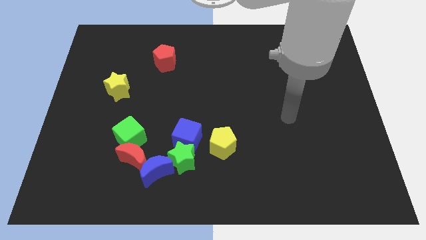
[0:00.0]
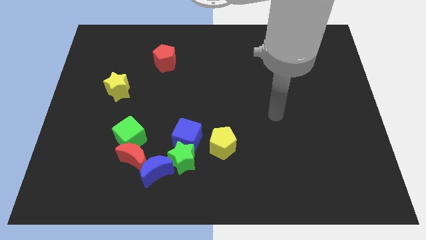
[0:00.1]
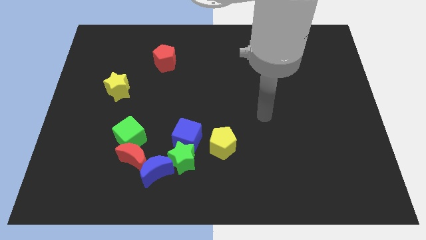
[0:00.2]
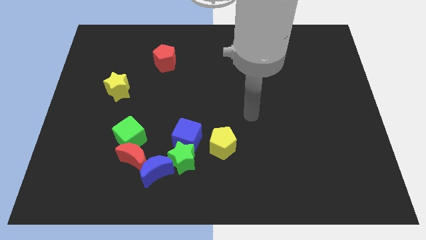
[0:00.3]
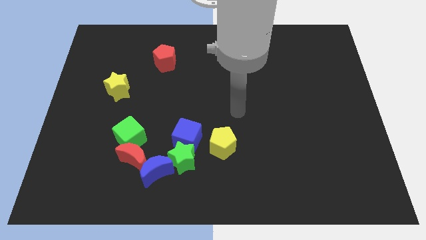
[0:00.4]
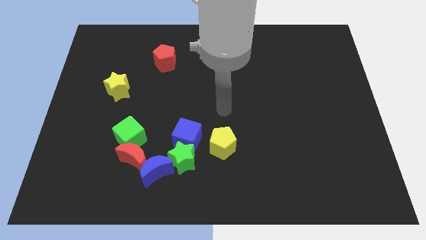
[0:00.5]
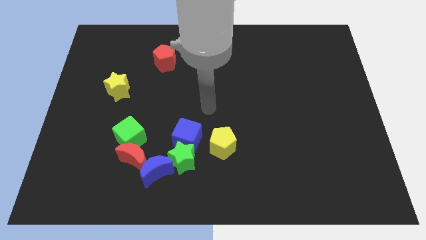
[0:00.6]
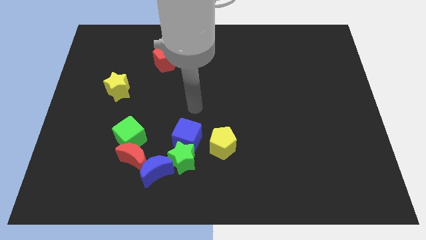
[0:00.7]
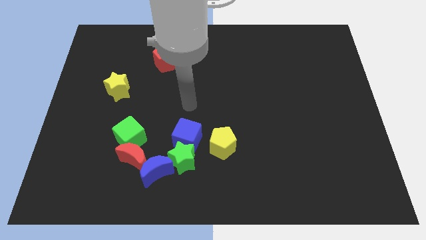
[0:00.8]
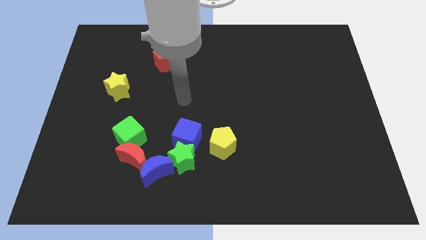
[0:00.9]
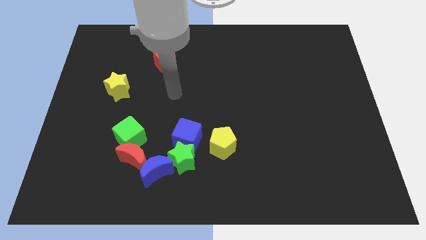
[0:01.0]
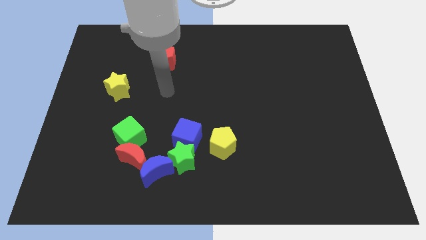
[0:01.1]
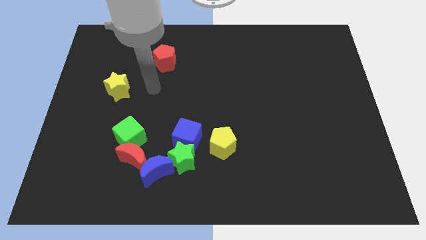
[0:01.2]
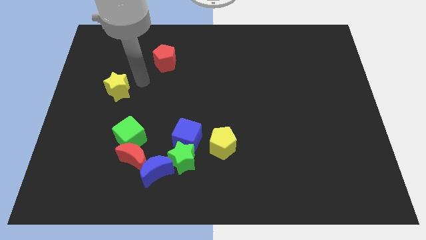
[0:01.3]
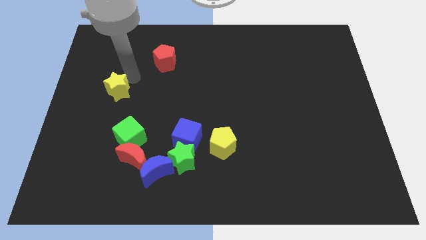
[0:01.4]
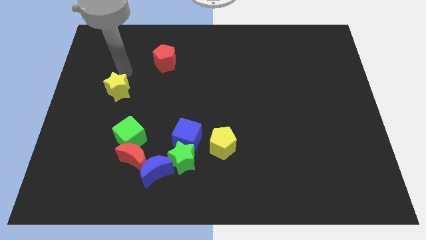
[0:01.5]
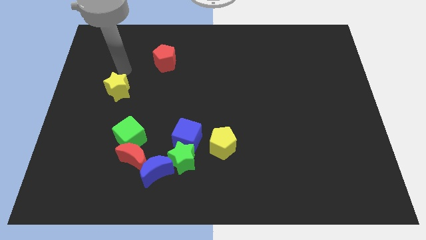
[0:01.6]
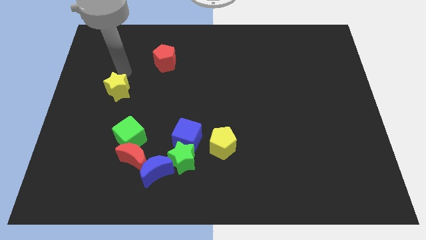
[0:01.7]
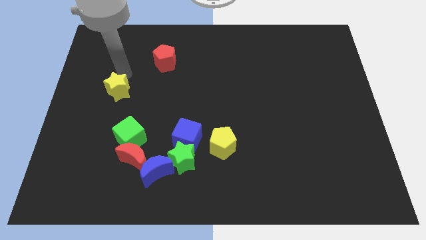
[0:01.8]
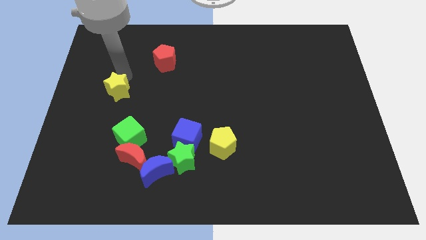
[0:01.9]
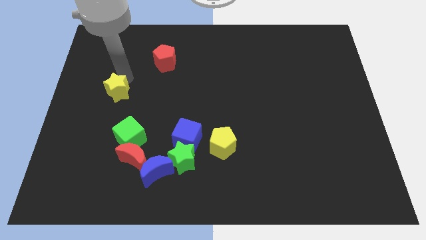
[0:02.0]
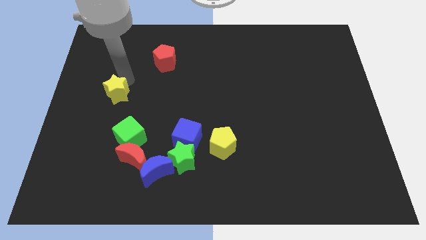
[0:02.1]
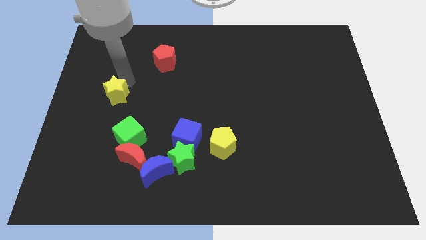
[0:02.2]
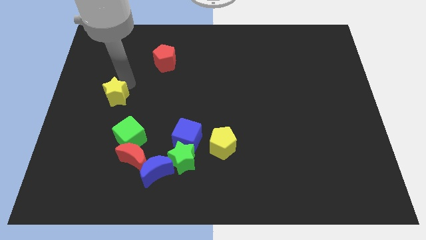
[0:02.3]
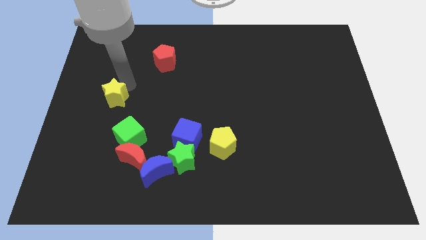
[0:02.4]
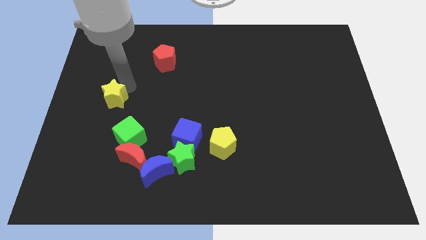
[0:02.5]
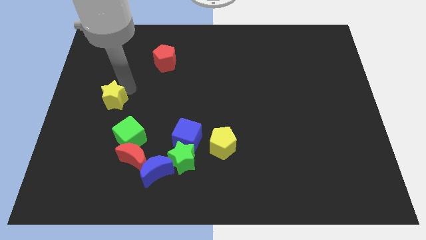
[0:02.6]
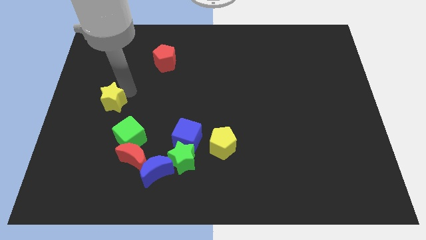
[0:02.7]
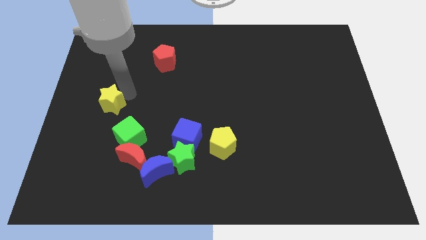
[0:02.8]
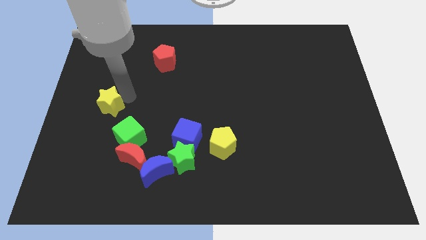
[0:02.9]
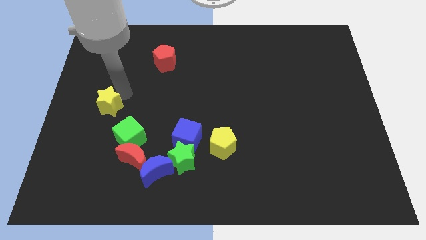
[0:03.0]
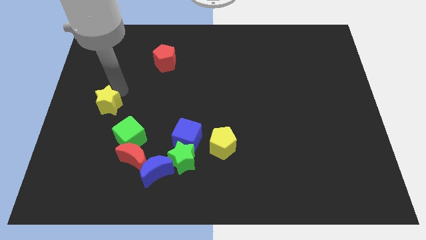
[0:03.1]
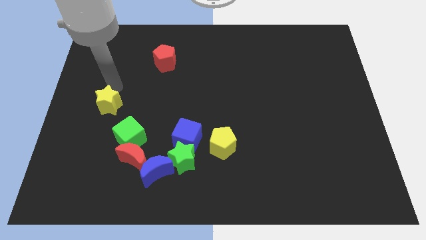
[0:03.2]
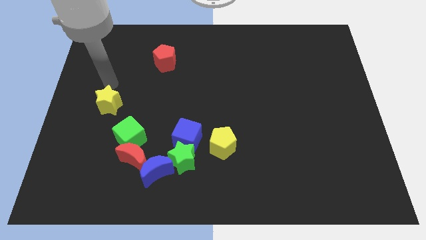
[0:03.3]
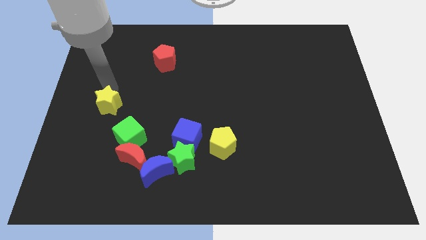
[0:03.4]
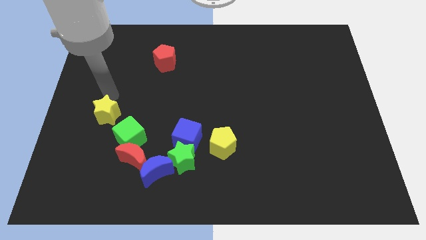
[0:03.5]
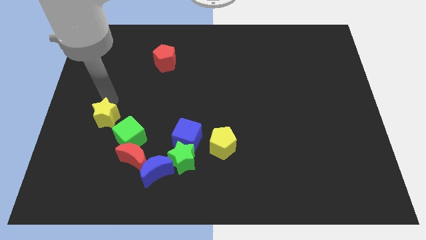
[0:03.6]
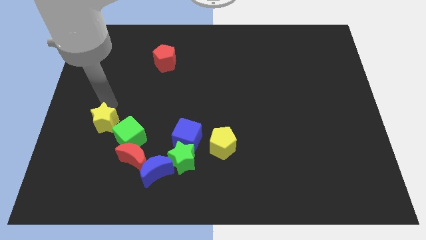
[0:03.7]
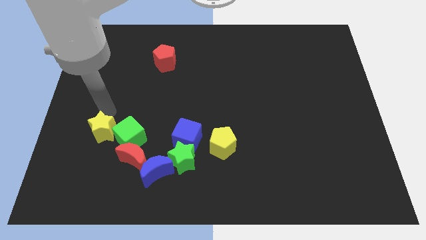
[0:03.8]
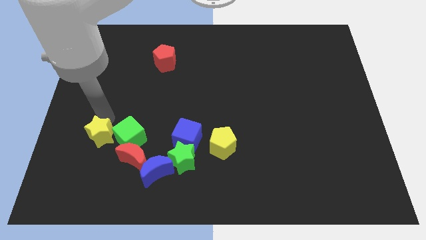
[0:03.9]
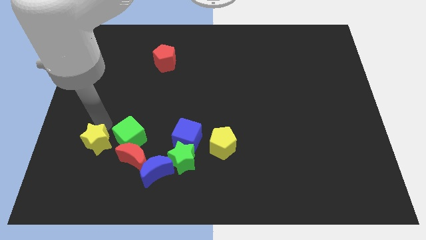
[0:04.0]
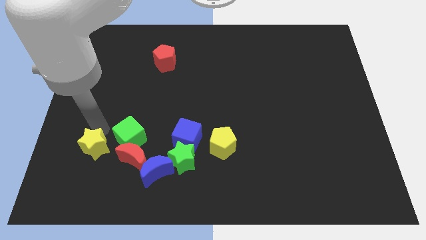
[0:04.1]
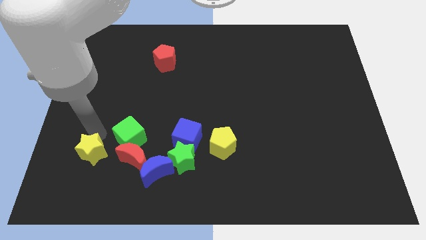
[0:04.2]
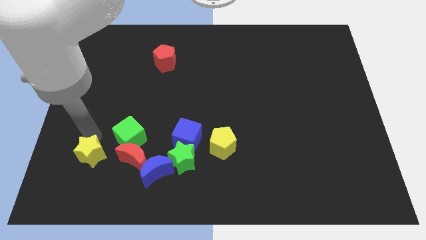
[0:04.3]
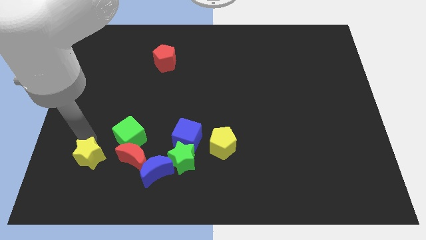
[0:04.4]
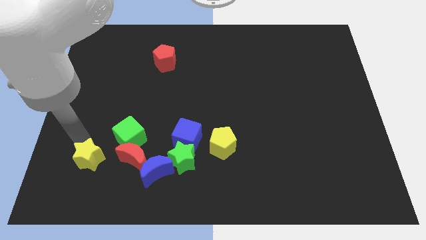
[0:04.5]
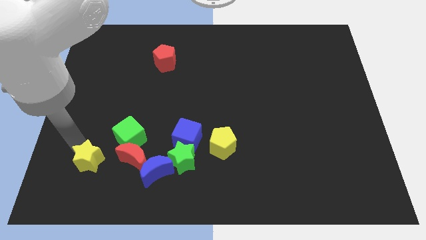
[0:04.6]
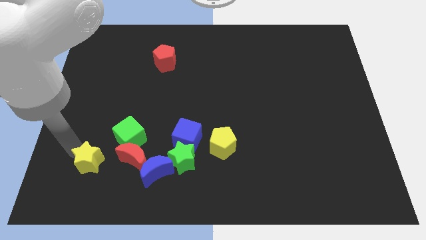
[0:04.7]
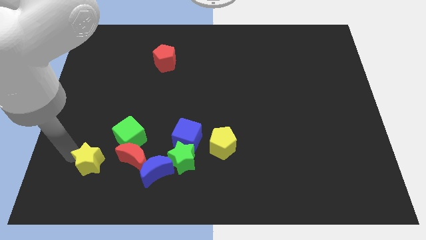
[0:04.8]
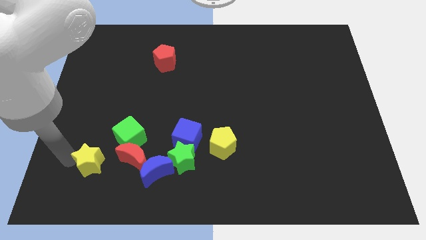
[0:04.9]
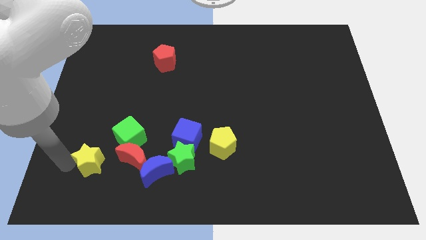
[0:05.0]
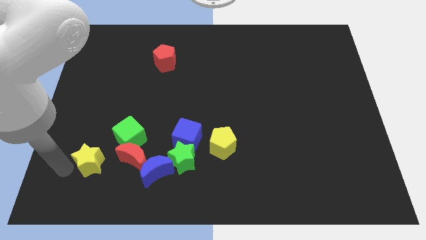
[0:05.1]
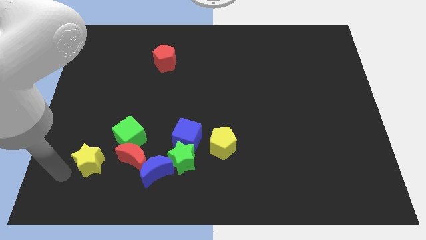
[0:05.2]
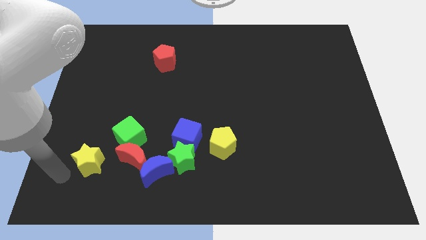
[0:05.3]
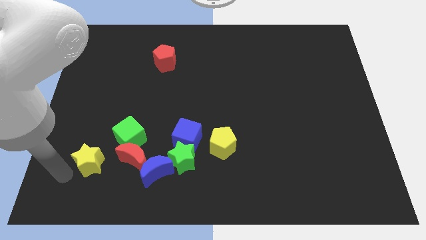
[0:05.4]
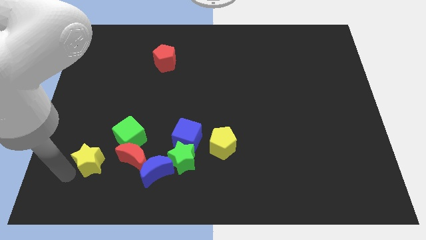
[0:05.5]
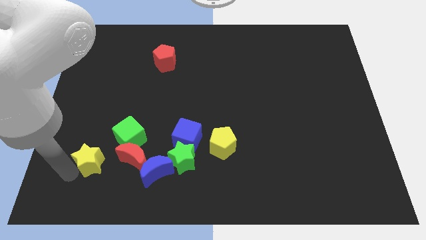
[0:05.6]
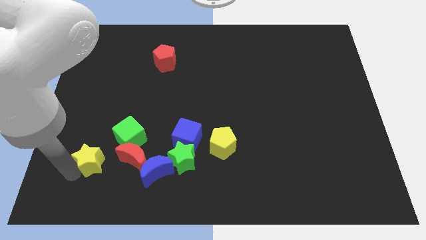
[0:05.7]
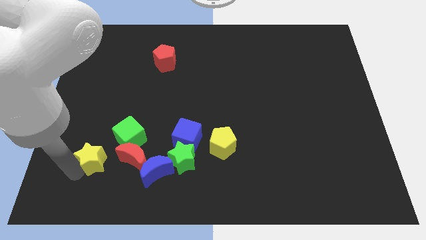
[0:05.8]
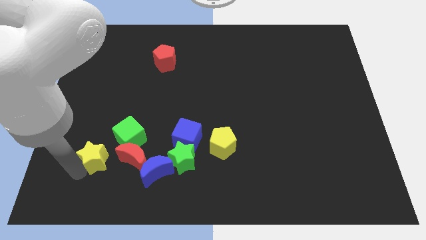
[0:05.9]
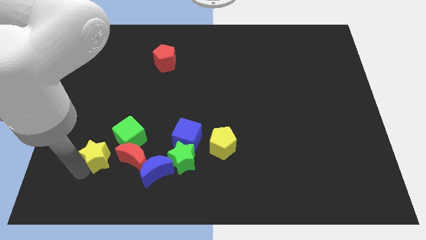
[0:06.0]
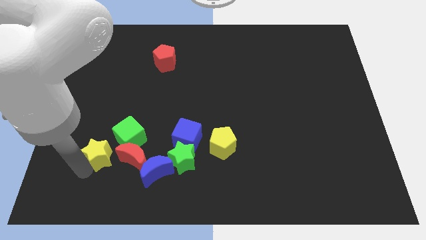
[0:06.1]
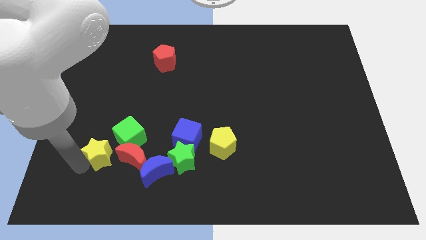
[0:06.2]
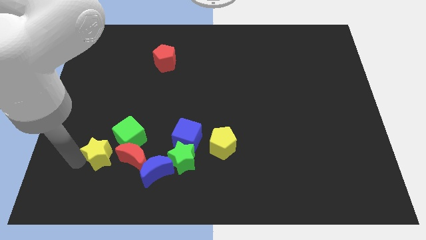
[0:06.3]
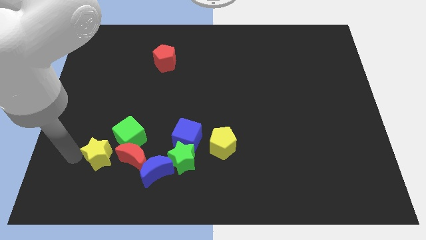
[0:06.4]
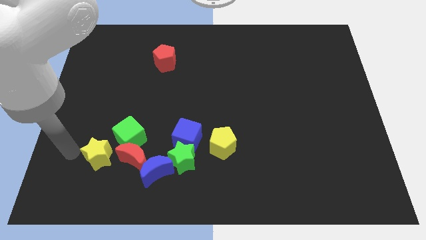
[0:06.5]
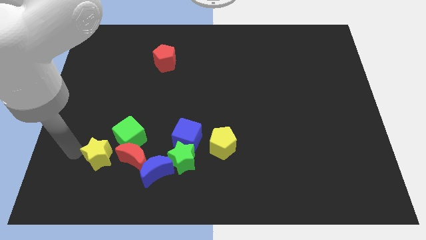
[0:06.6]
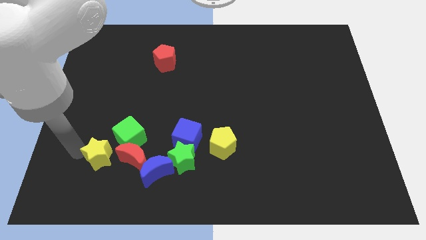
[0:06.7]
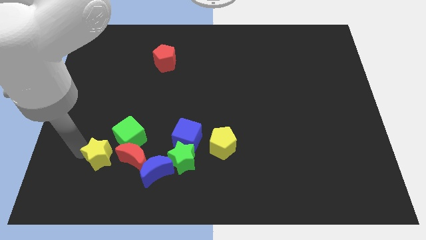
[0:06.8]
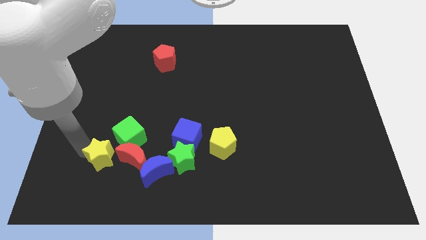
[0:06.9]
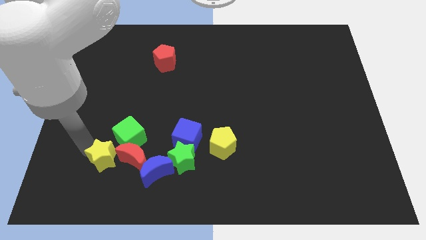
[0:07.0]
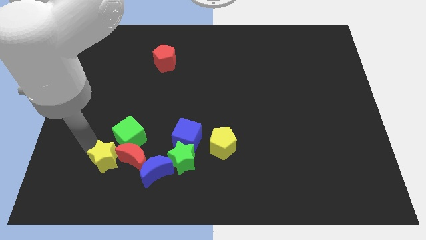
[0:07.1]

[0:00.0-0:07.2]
put the yellow star just left of the green star
